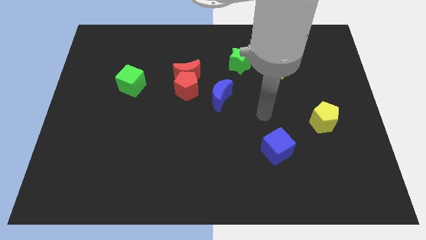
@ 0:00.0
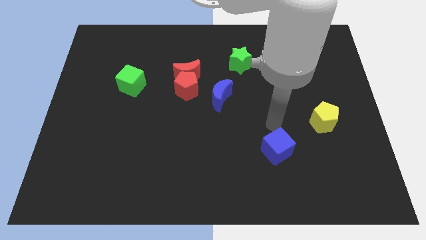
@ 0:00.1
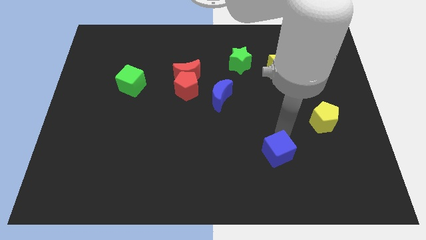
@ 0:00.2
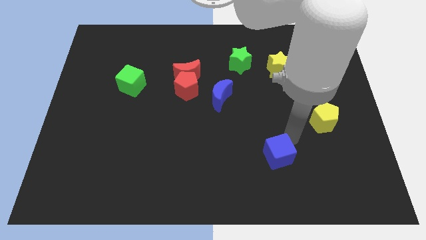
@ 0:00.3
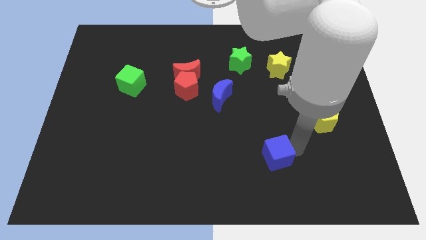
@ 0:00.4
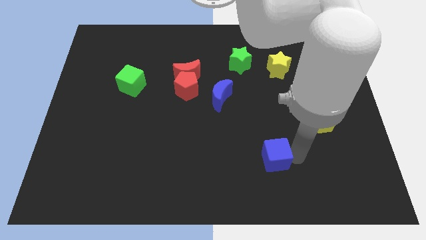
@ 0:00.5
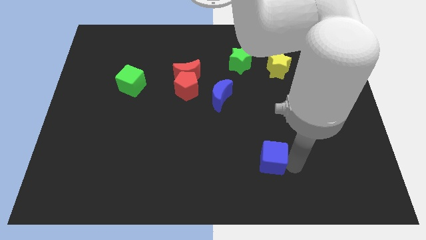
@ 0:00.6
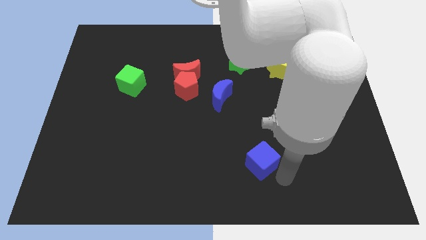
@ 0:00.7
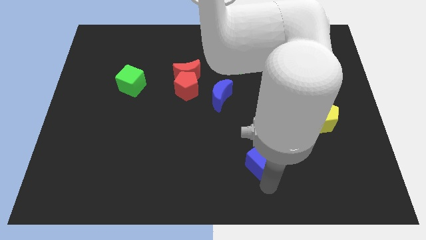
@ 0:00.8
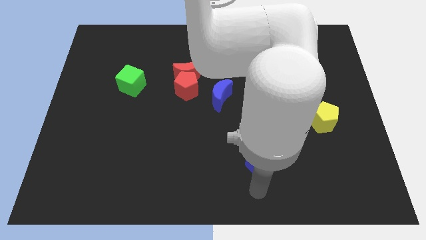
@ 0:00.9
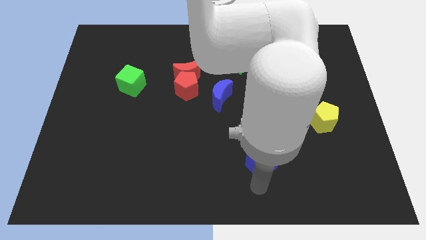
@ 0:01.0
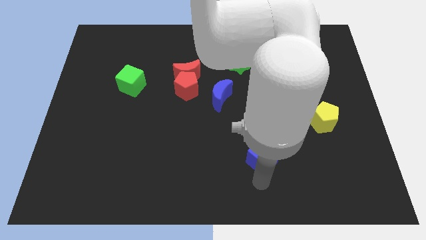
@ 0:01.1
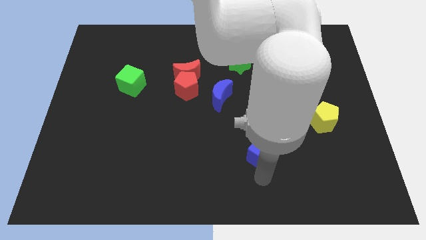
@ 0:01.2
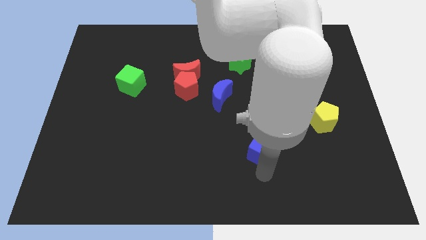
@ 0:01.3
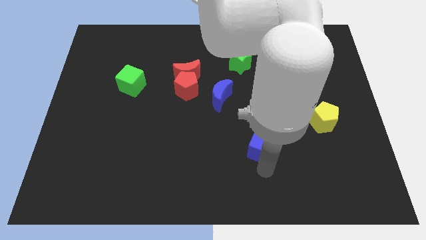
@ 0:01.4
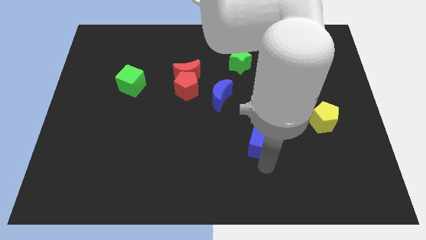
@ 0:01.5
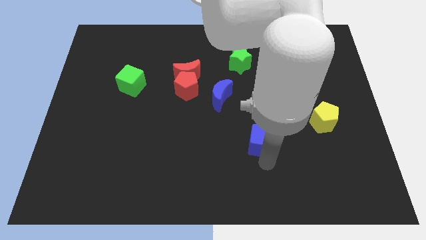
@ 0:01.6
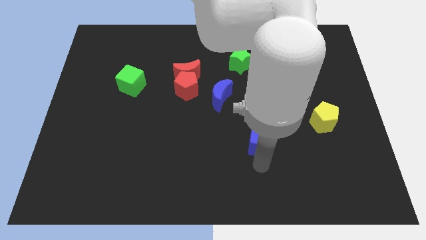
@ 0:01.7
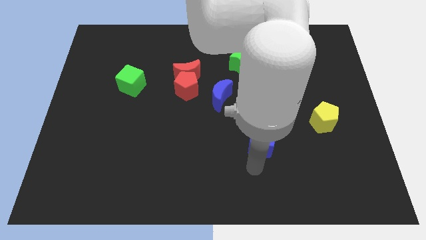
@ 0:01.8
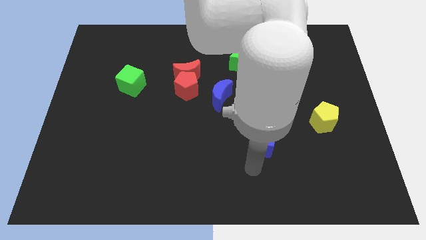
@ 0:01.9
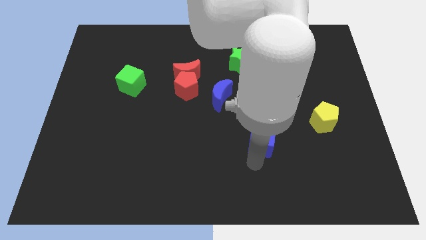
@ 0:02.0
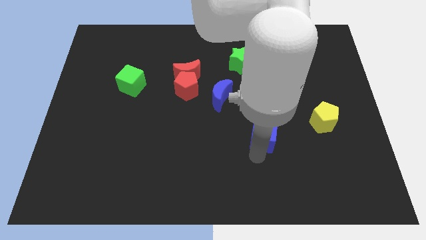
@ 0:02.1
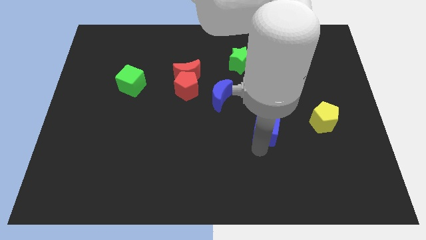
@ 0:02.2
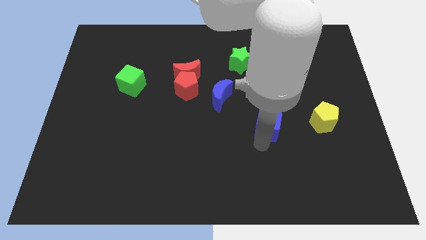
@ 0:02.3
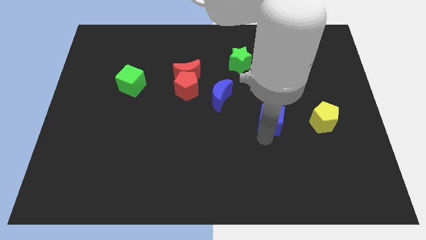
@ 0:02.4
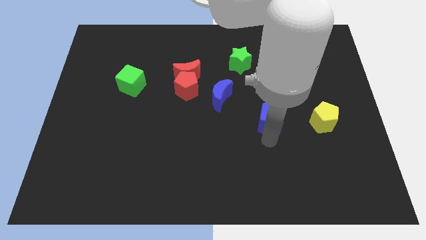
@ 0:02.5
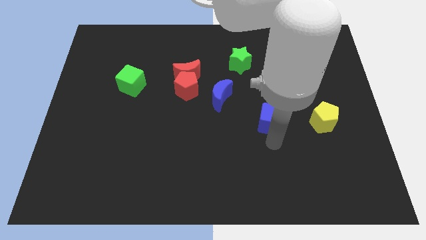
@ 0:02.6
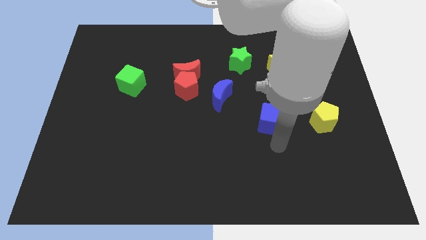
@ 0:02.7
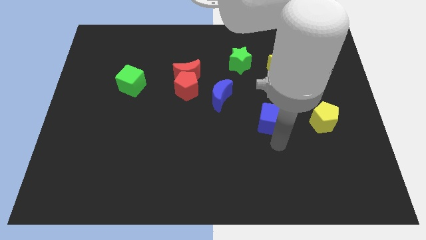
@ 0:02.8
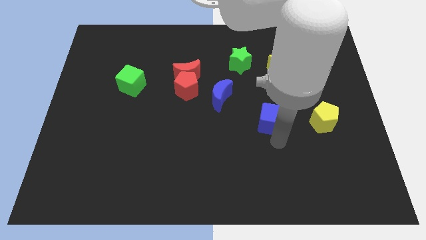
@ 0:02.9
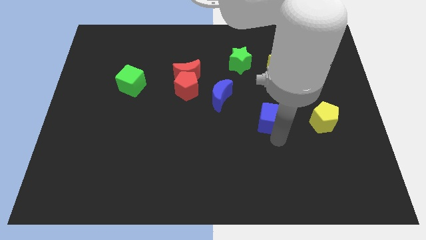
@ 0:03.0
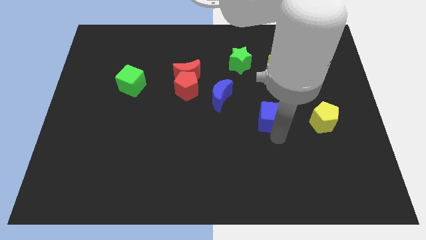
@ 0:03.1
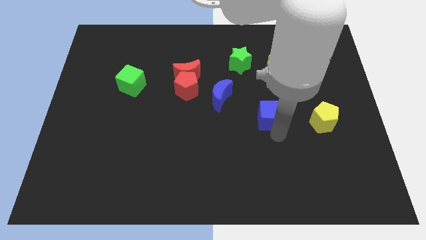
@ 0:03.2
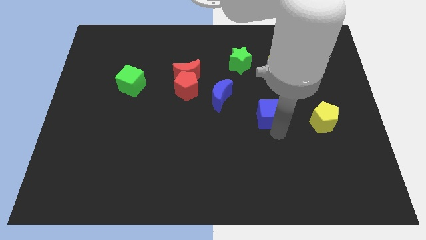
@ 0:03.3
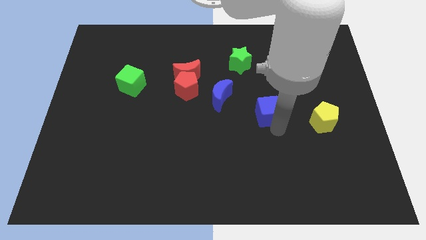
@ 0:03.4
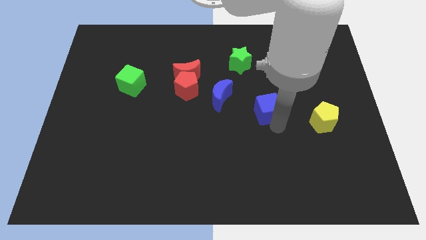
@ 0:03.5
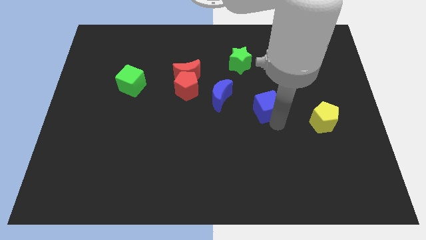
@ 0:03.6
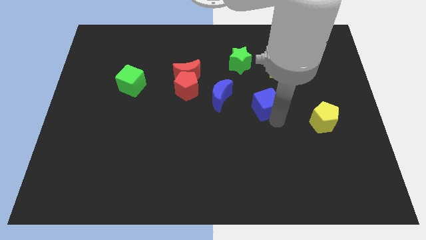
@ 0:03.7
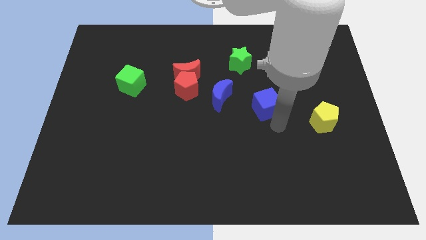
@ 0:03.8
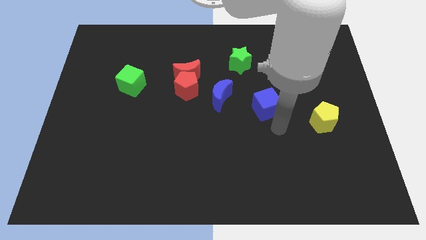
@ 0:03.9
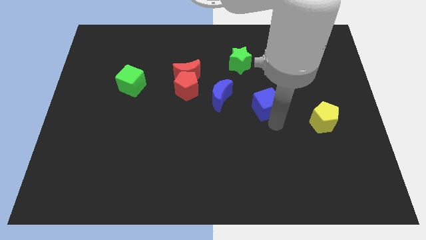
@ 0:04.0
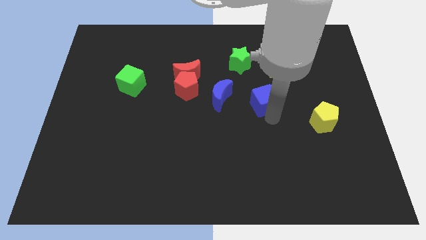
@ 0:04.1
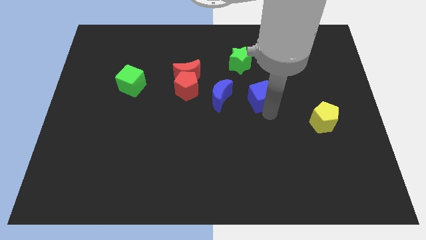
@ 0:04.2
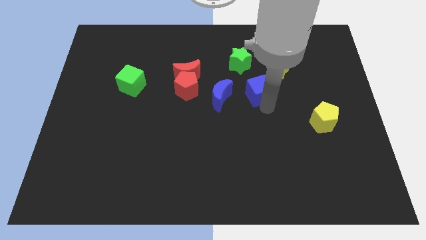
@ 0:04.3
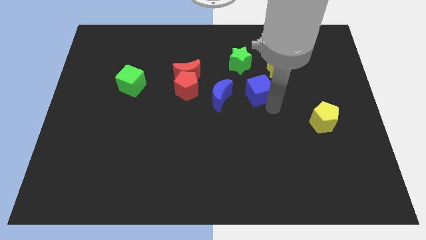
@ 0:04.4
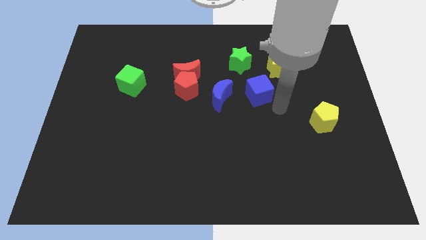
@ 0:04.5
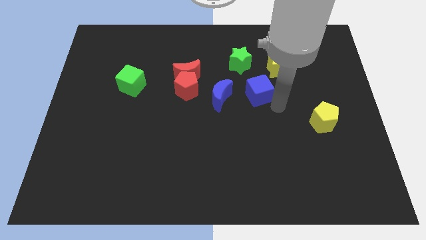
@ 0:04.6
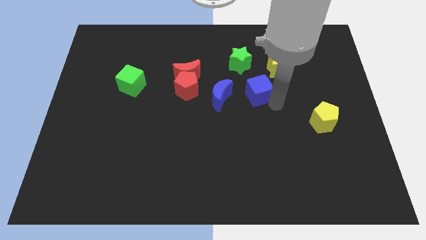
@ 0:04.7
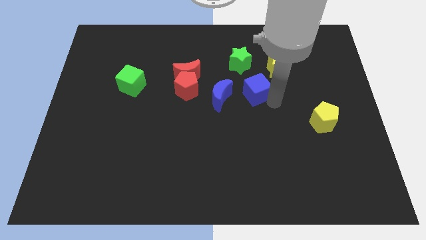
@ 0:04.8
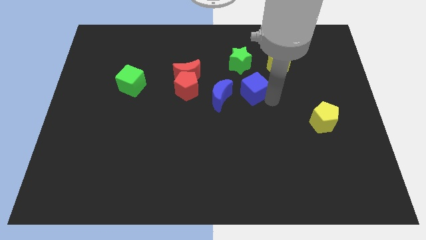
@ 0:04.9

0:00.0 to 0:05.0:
push the blue cube diagonally up and to the right of the blue moon

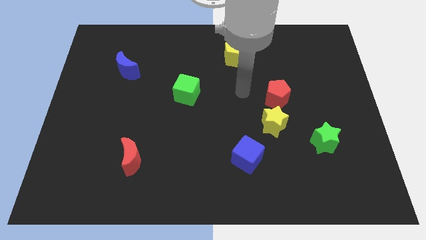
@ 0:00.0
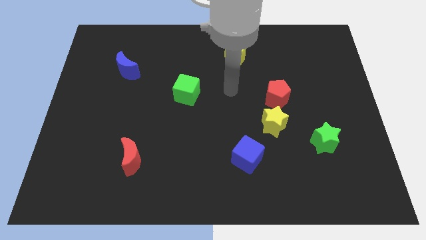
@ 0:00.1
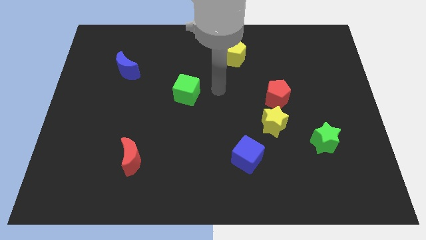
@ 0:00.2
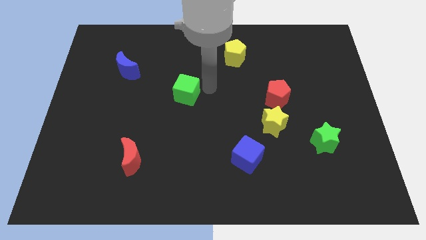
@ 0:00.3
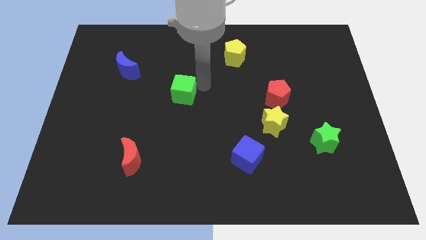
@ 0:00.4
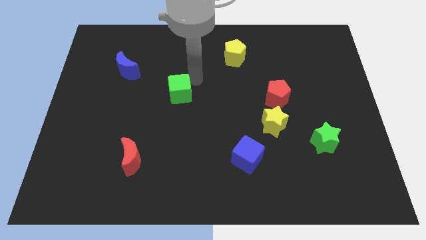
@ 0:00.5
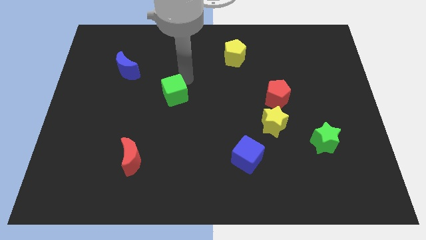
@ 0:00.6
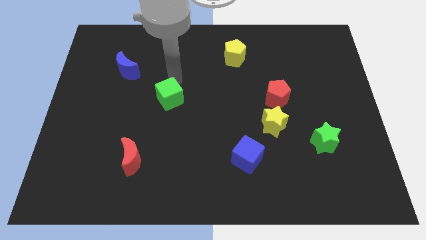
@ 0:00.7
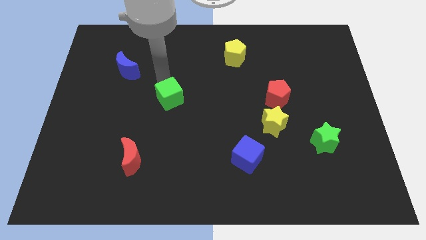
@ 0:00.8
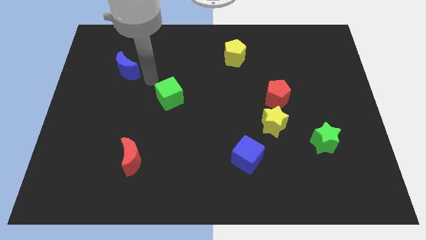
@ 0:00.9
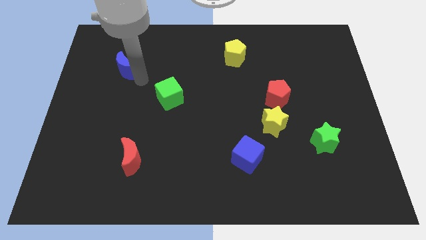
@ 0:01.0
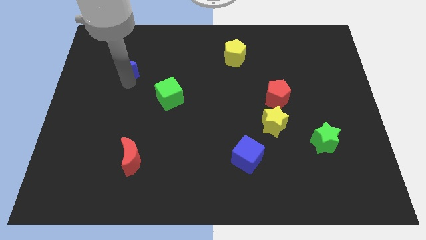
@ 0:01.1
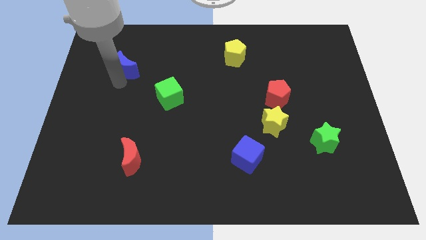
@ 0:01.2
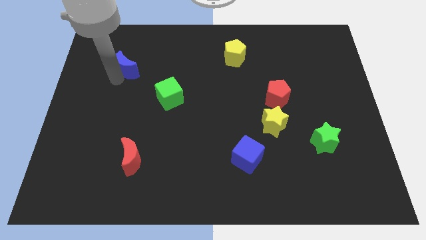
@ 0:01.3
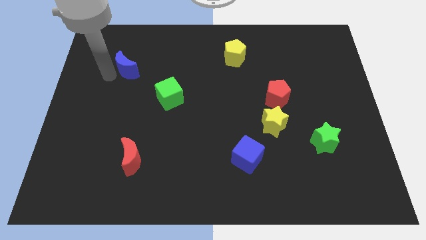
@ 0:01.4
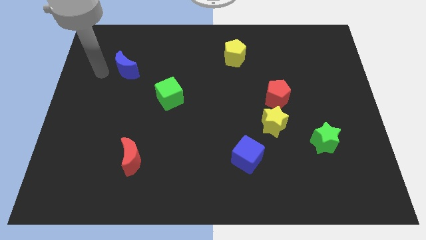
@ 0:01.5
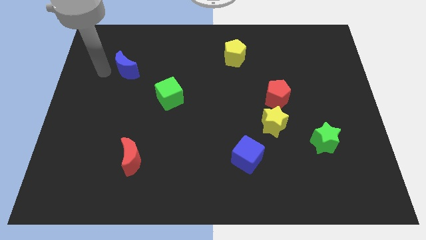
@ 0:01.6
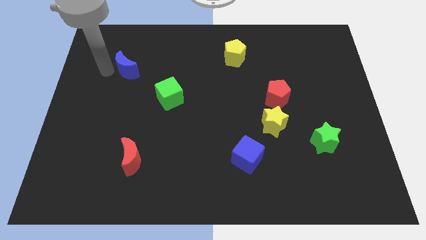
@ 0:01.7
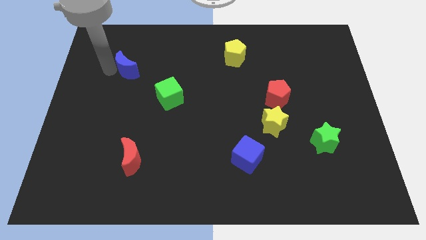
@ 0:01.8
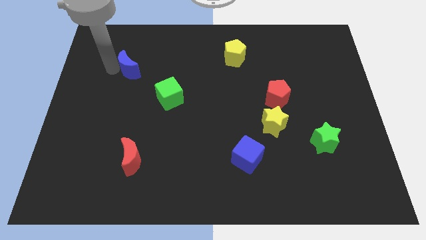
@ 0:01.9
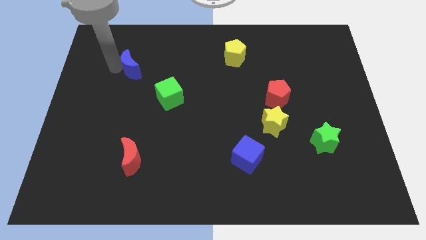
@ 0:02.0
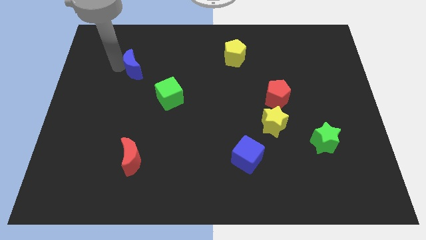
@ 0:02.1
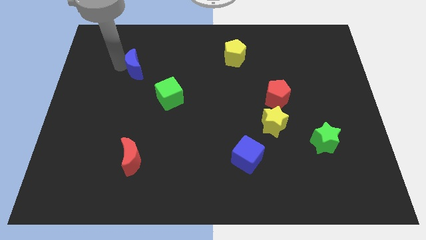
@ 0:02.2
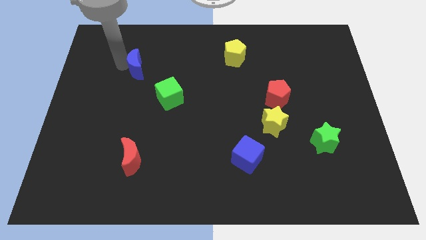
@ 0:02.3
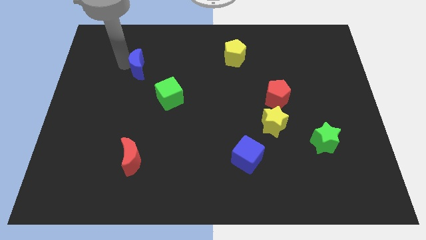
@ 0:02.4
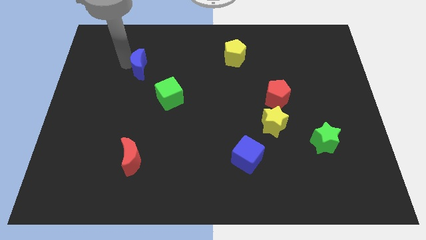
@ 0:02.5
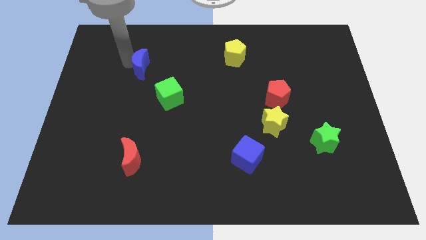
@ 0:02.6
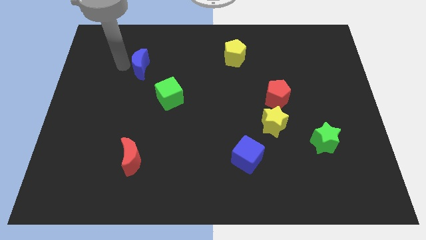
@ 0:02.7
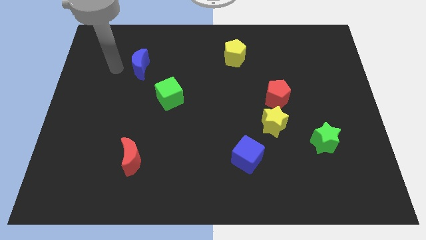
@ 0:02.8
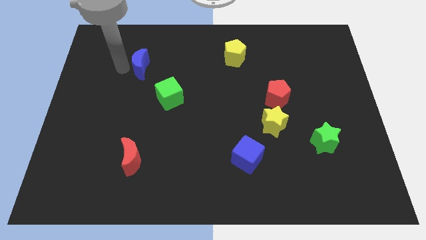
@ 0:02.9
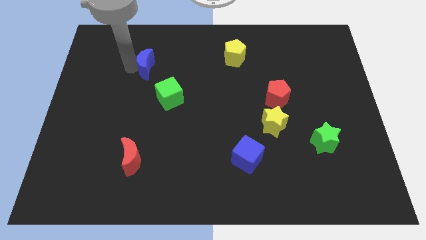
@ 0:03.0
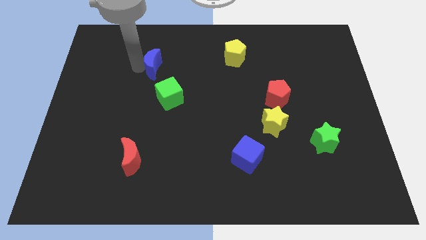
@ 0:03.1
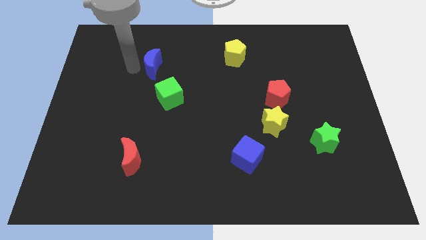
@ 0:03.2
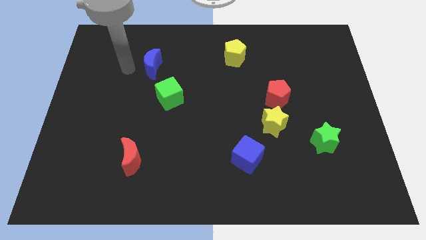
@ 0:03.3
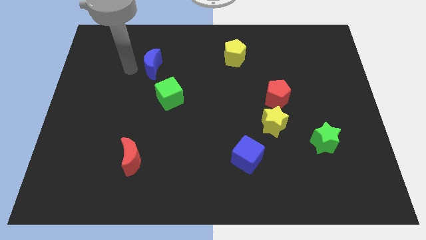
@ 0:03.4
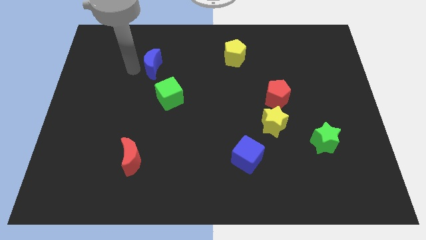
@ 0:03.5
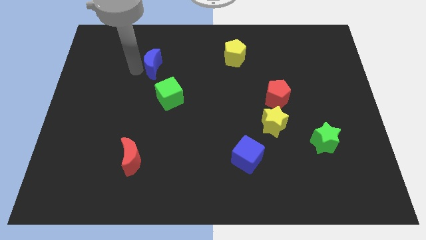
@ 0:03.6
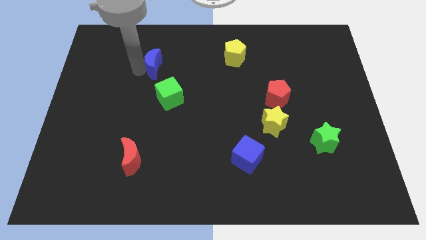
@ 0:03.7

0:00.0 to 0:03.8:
move the blue moon to the top side of the green cube
